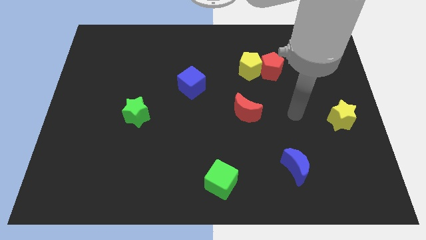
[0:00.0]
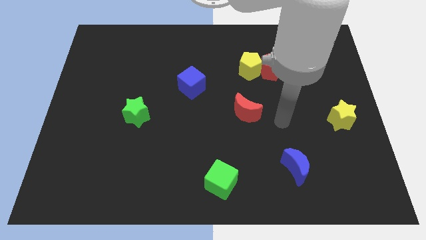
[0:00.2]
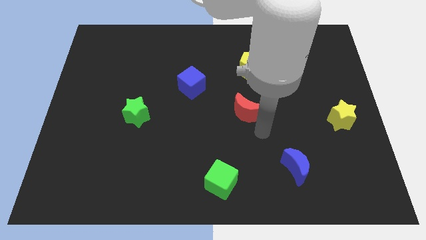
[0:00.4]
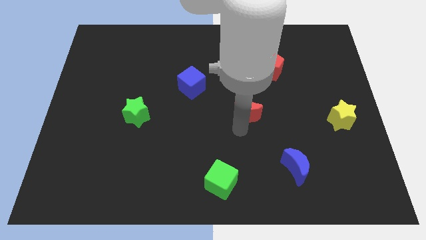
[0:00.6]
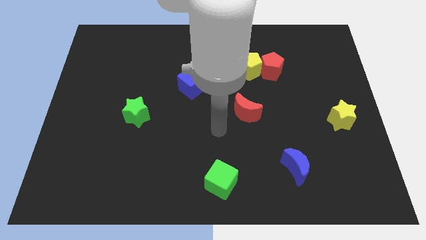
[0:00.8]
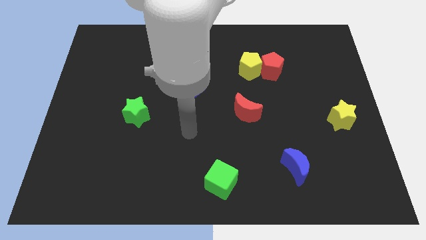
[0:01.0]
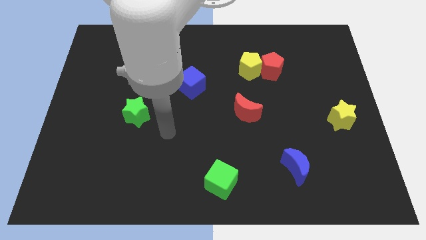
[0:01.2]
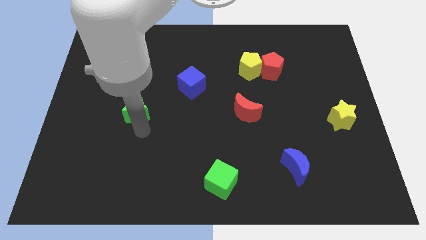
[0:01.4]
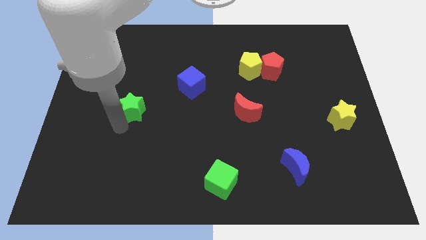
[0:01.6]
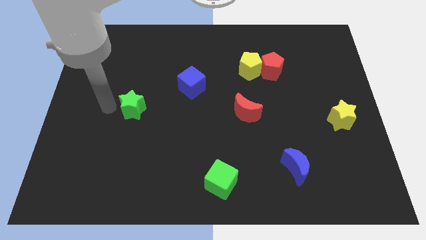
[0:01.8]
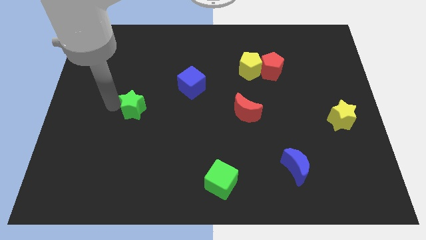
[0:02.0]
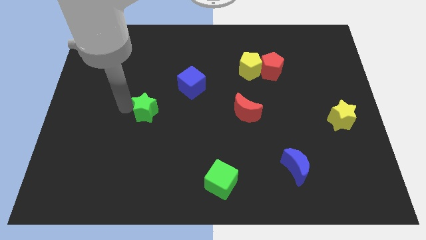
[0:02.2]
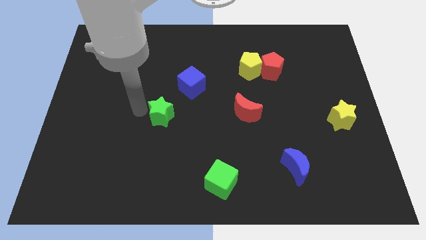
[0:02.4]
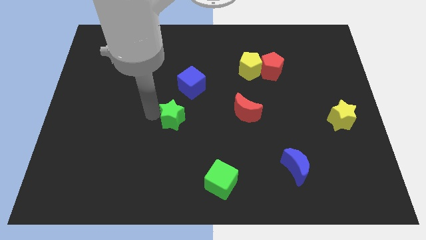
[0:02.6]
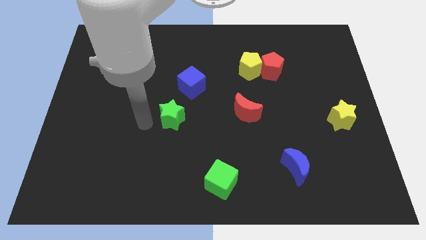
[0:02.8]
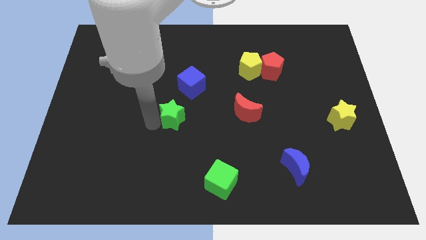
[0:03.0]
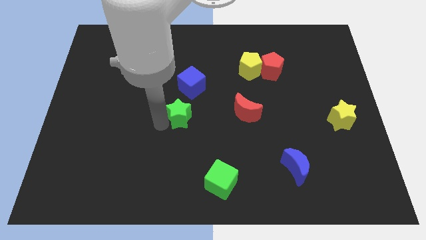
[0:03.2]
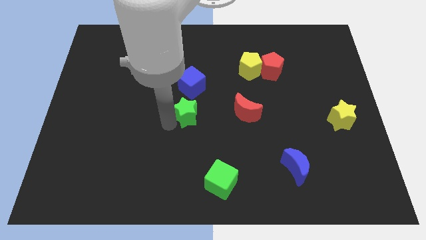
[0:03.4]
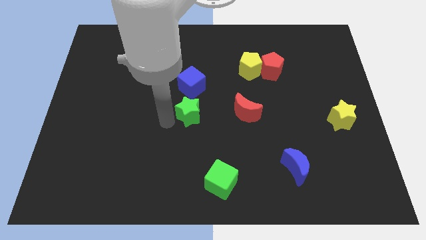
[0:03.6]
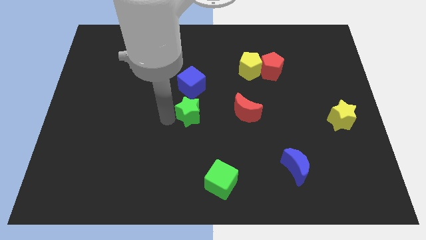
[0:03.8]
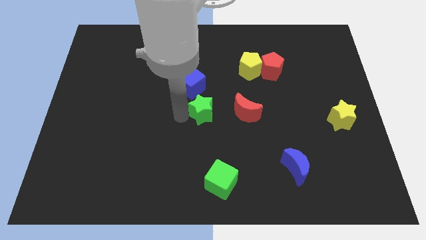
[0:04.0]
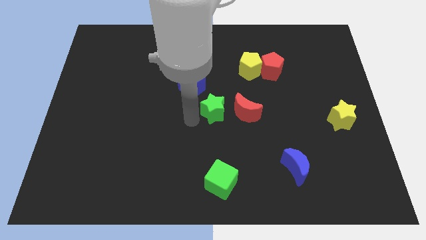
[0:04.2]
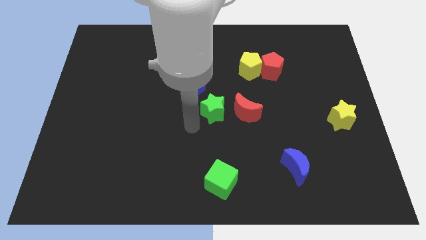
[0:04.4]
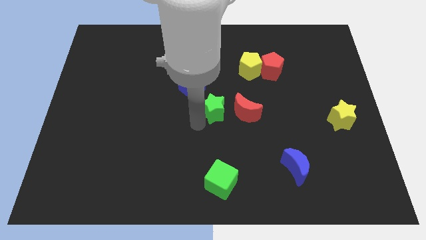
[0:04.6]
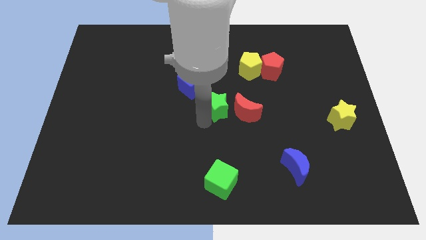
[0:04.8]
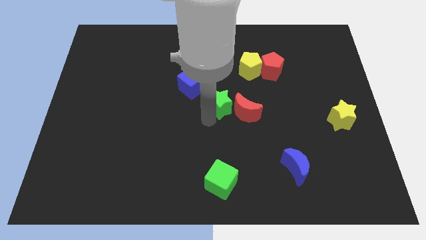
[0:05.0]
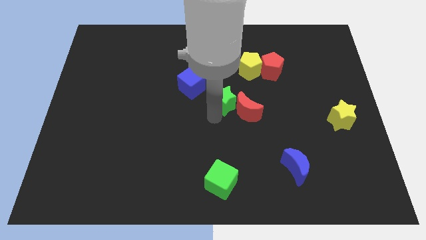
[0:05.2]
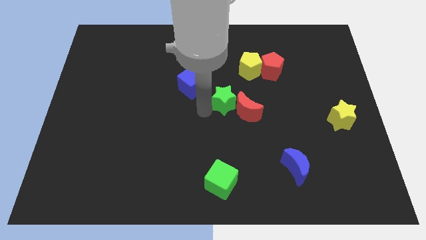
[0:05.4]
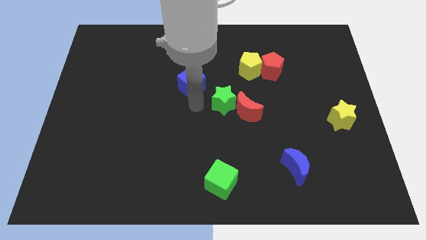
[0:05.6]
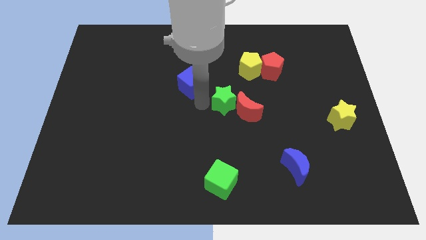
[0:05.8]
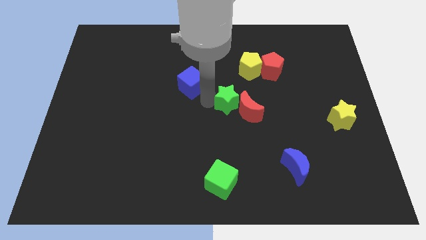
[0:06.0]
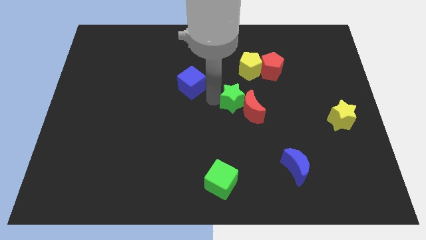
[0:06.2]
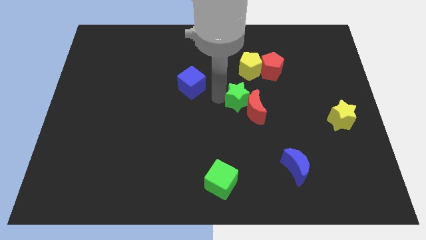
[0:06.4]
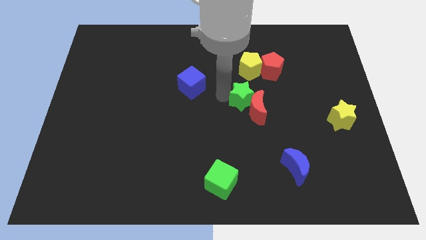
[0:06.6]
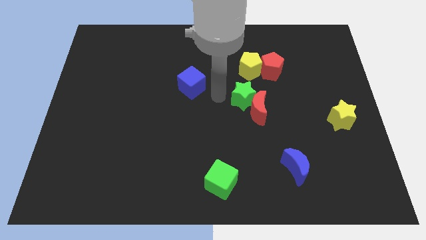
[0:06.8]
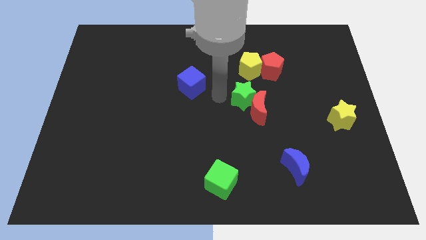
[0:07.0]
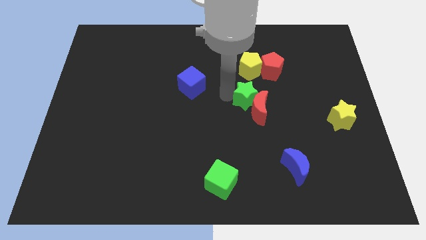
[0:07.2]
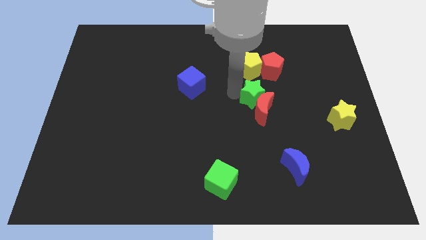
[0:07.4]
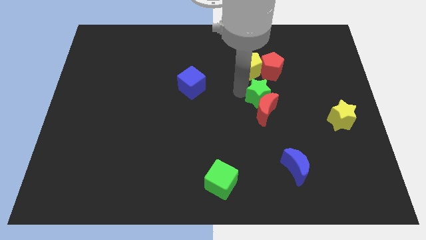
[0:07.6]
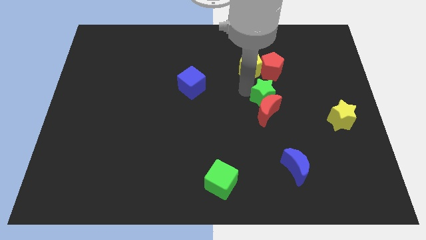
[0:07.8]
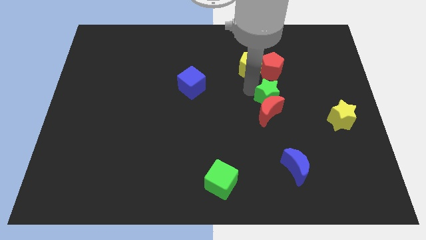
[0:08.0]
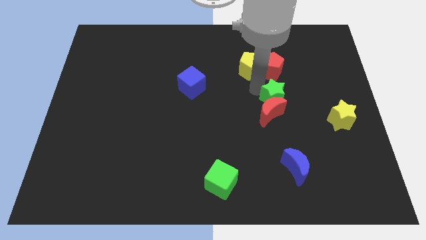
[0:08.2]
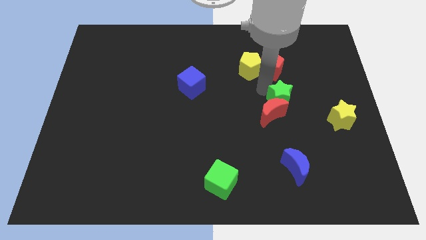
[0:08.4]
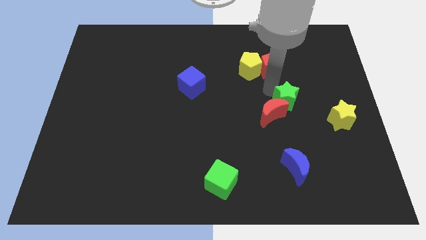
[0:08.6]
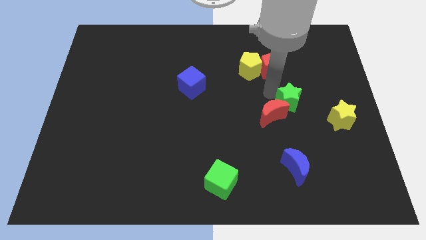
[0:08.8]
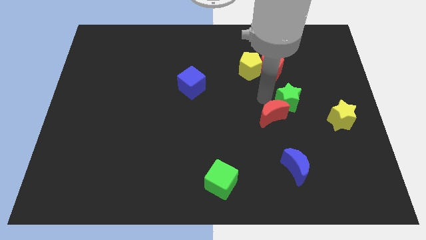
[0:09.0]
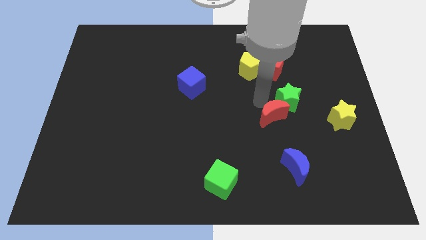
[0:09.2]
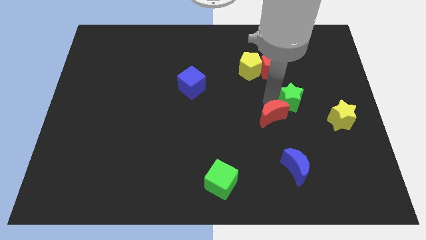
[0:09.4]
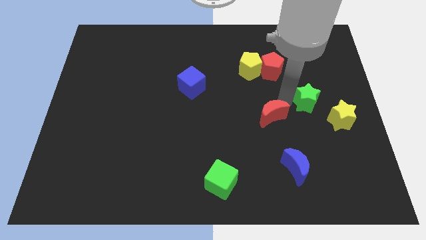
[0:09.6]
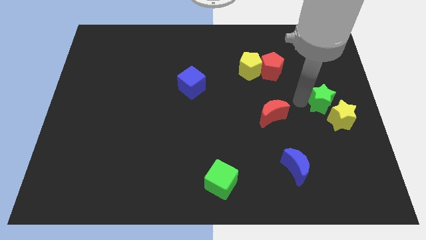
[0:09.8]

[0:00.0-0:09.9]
move the green star to the right side of the board

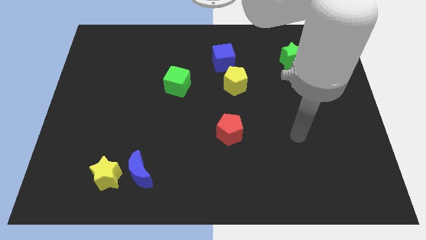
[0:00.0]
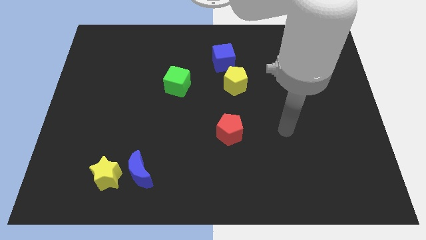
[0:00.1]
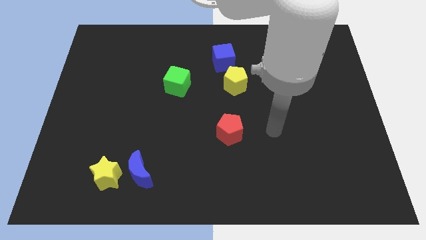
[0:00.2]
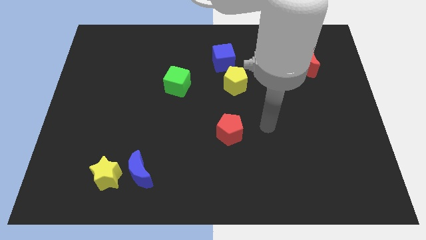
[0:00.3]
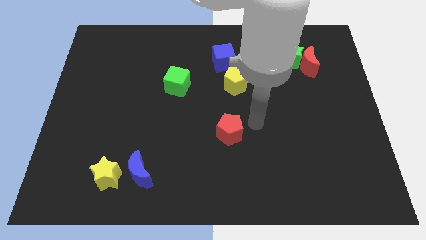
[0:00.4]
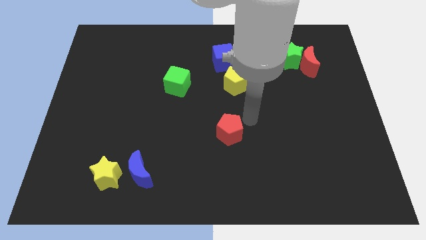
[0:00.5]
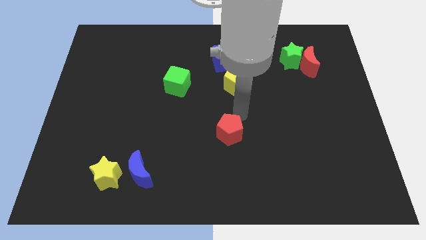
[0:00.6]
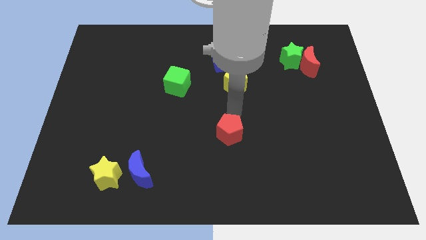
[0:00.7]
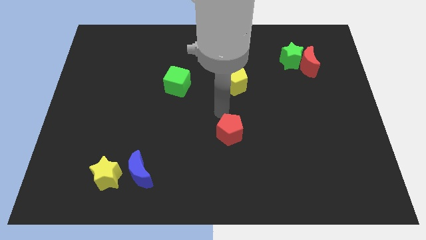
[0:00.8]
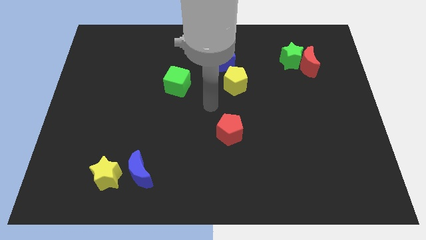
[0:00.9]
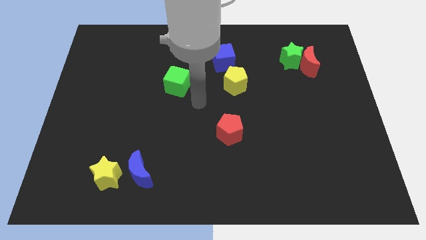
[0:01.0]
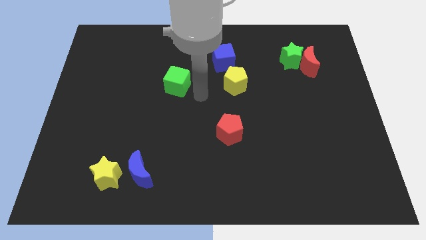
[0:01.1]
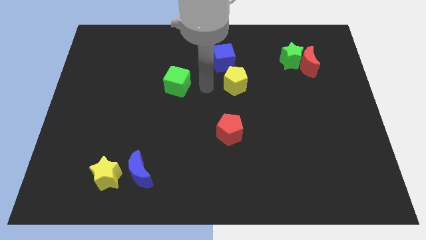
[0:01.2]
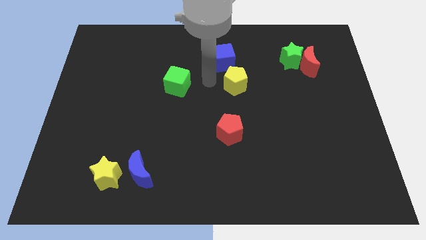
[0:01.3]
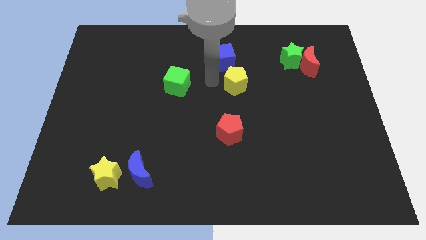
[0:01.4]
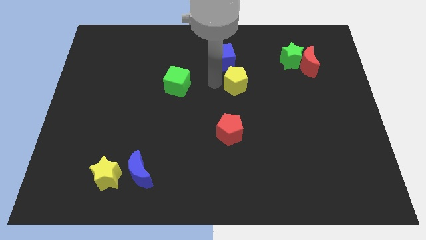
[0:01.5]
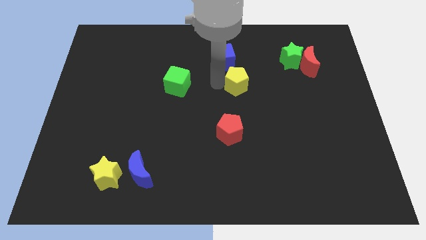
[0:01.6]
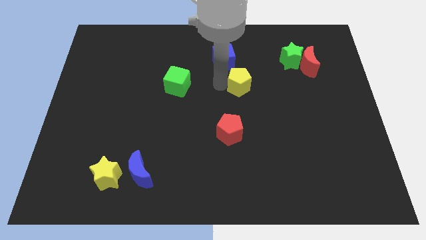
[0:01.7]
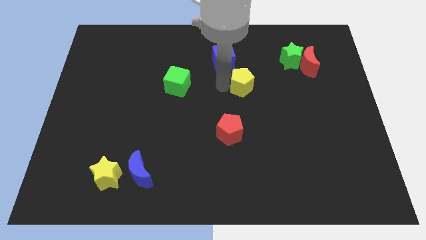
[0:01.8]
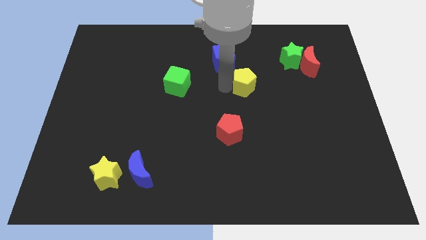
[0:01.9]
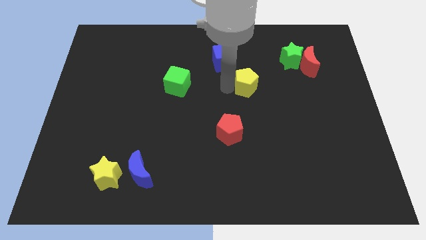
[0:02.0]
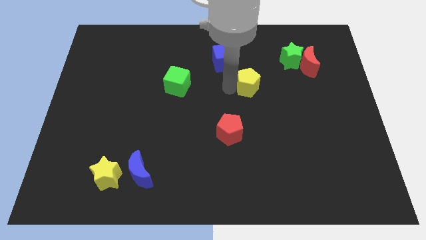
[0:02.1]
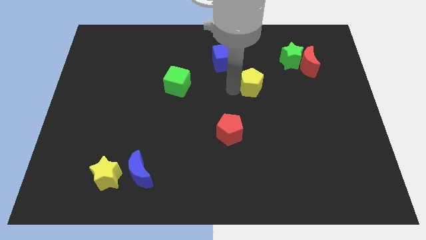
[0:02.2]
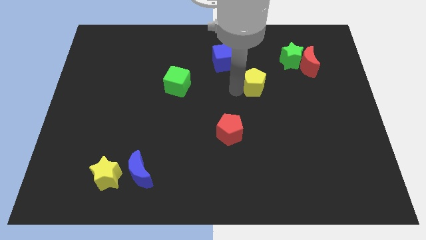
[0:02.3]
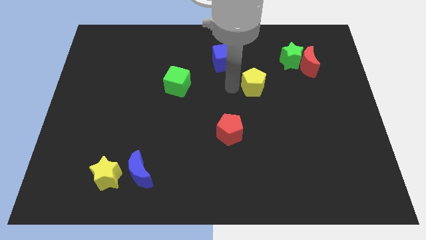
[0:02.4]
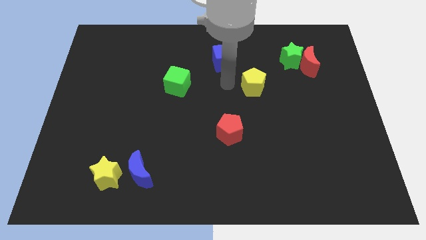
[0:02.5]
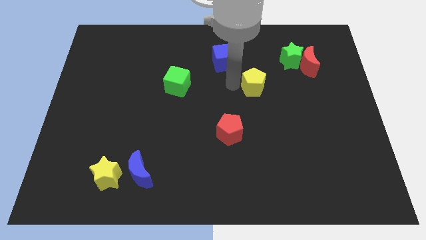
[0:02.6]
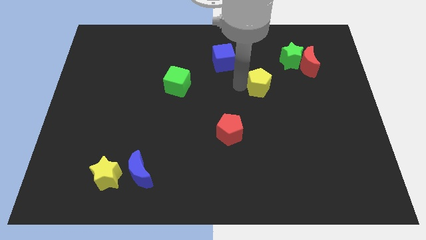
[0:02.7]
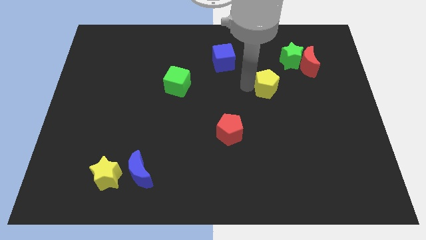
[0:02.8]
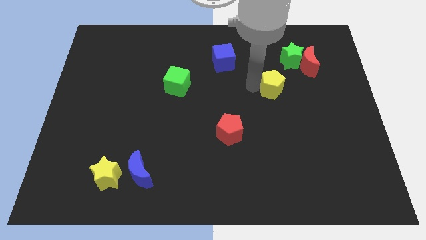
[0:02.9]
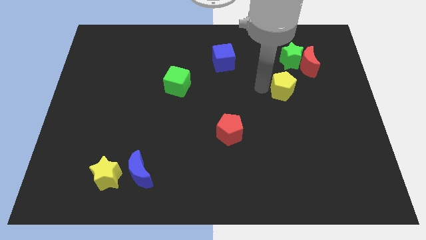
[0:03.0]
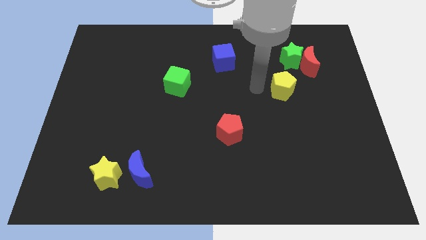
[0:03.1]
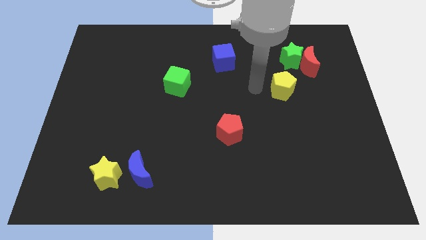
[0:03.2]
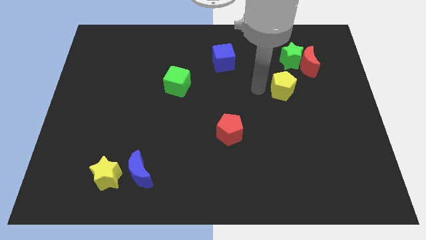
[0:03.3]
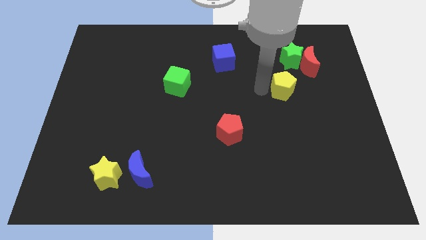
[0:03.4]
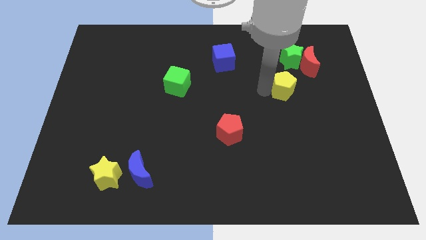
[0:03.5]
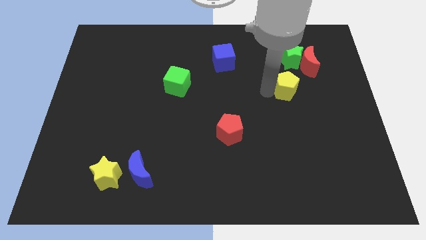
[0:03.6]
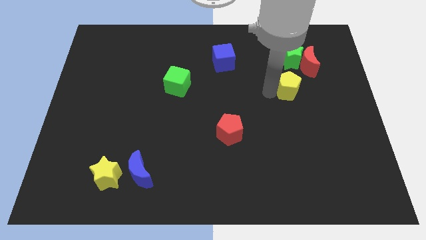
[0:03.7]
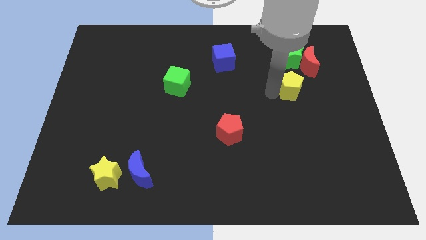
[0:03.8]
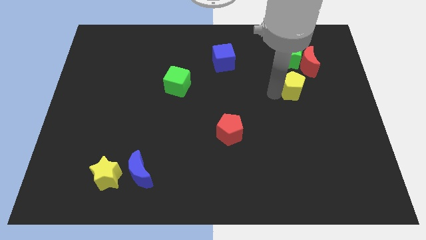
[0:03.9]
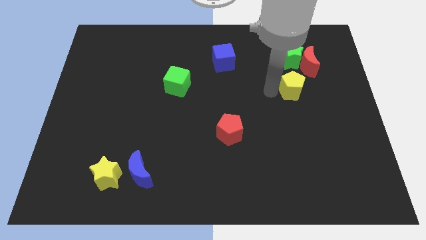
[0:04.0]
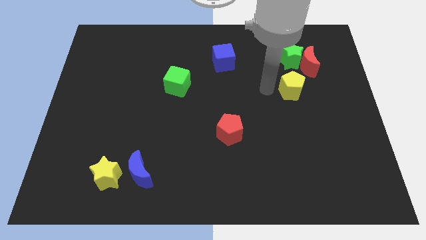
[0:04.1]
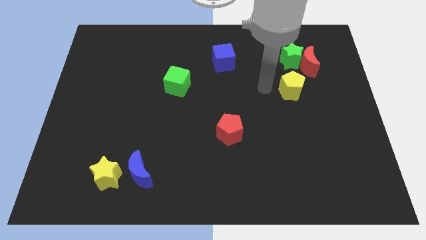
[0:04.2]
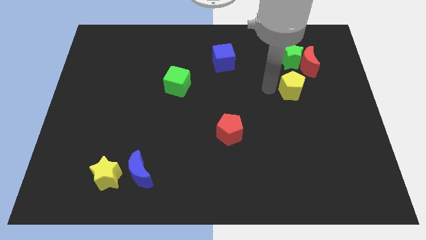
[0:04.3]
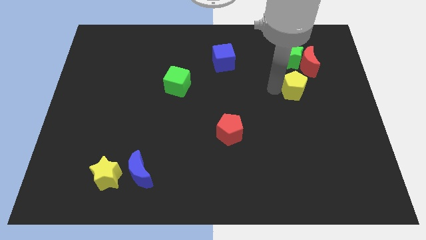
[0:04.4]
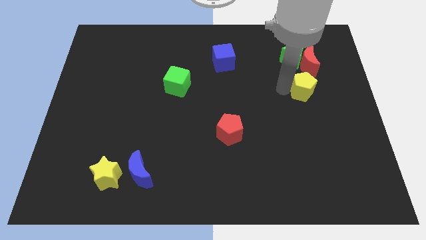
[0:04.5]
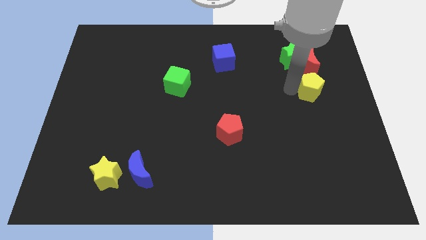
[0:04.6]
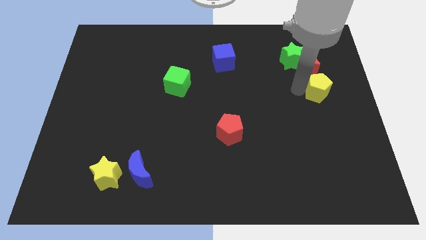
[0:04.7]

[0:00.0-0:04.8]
push the yellow pentagon to the right side of the board
